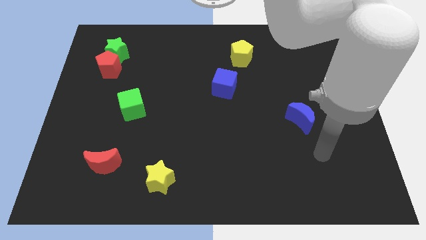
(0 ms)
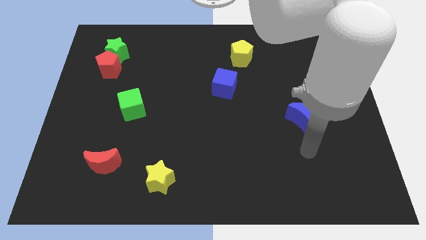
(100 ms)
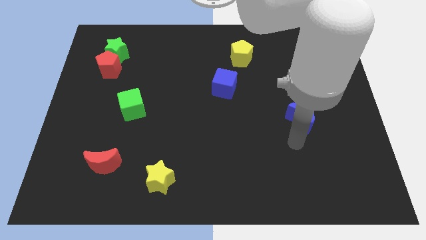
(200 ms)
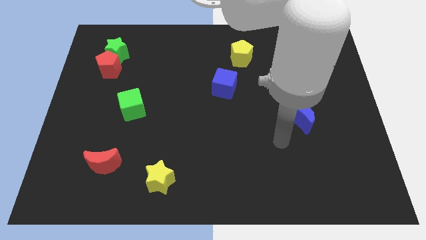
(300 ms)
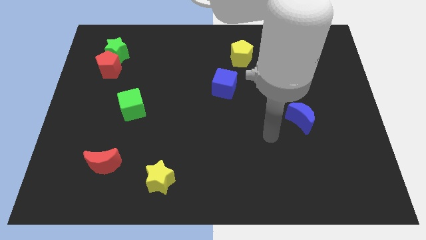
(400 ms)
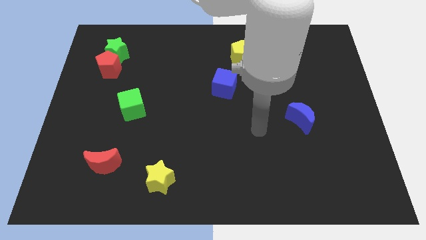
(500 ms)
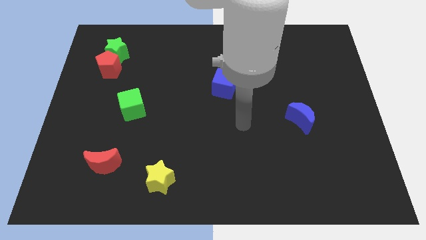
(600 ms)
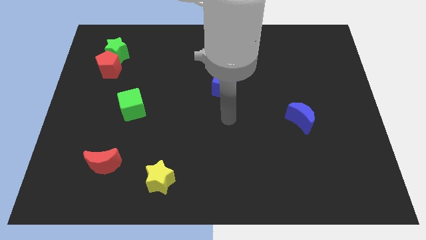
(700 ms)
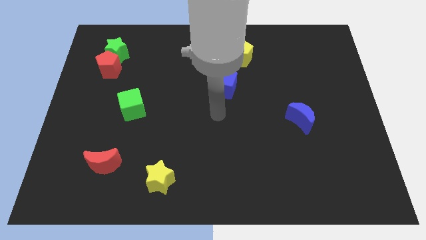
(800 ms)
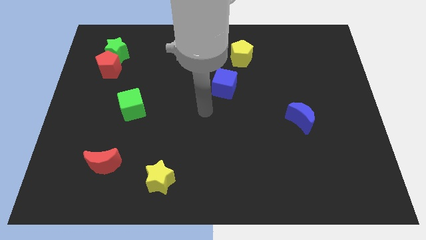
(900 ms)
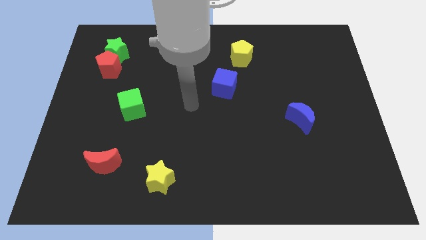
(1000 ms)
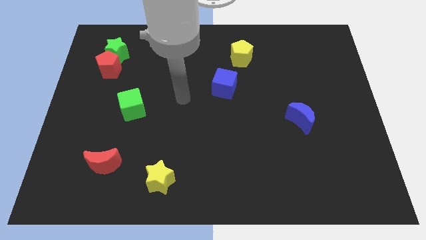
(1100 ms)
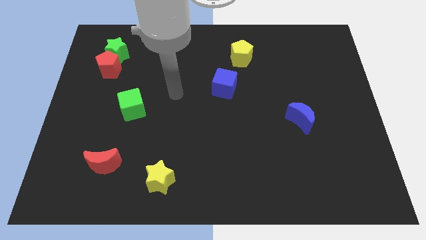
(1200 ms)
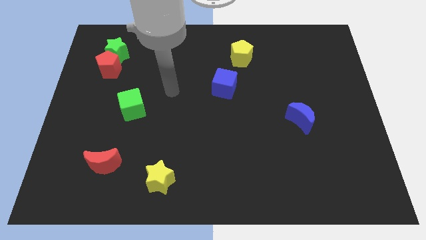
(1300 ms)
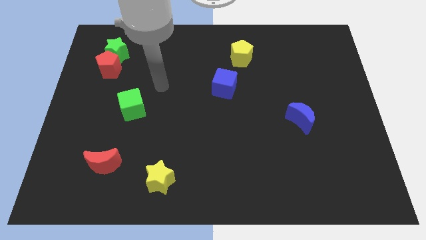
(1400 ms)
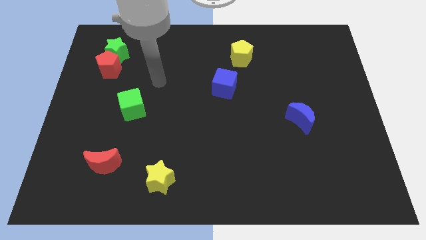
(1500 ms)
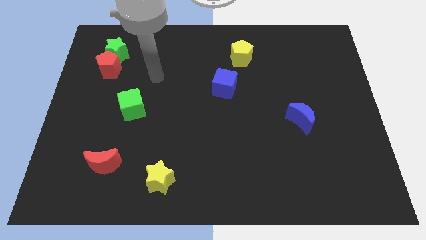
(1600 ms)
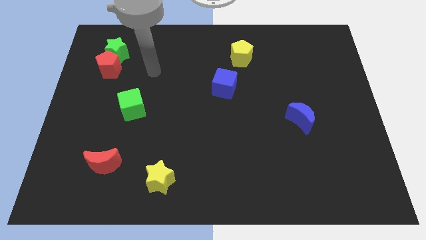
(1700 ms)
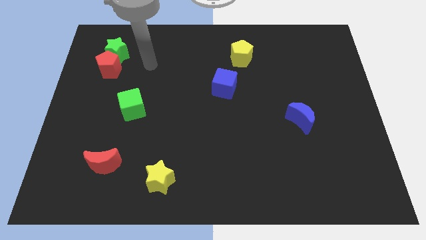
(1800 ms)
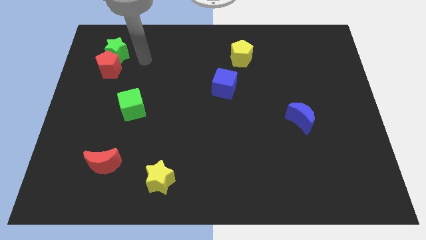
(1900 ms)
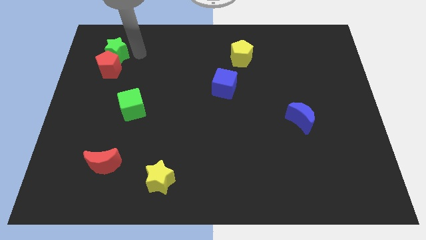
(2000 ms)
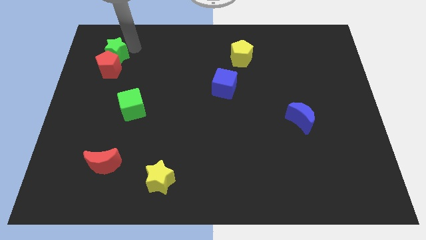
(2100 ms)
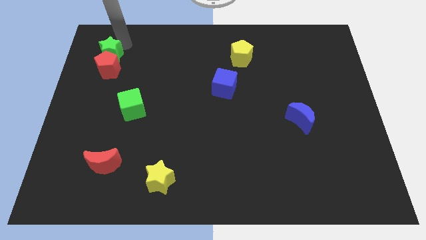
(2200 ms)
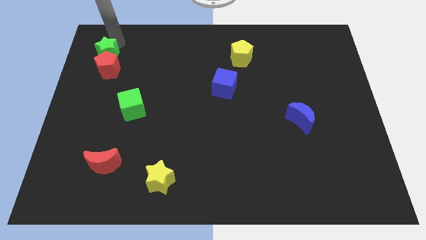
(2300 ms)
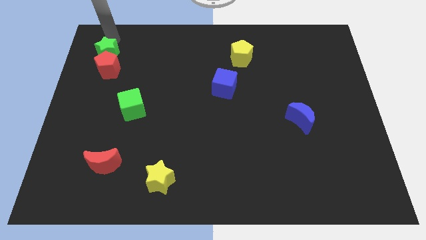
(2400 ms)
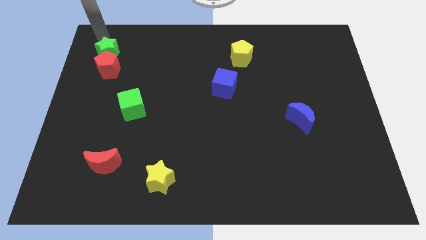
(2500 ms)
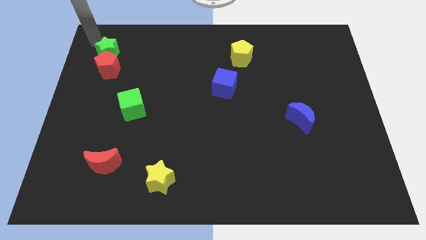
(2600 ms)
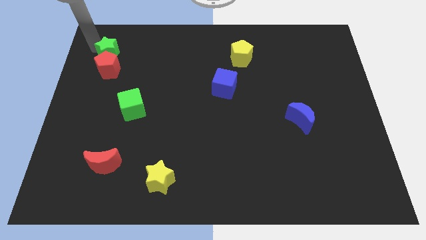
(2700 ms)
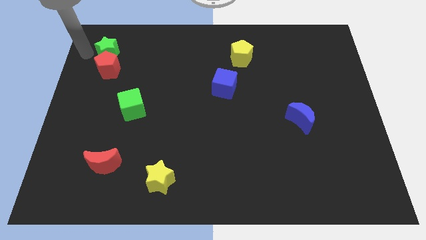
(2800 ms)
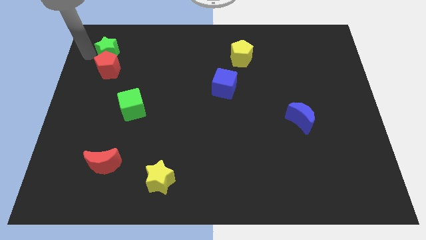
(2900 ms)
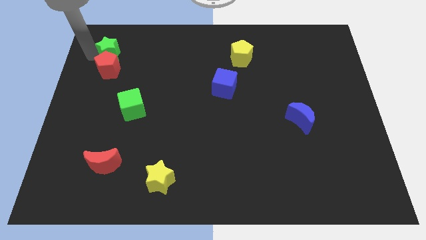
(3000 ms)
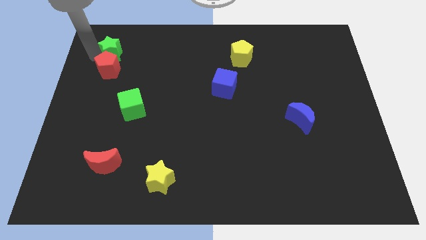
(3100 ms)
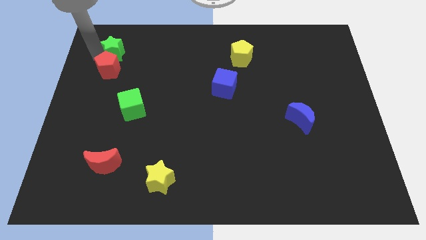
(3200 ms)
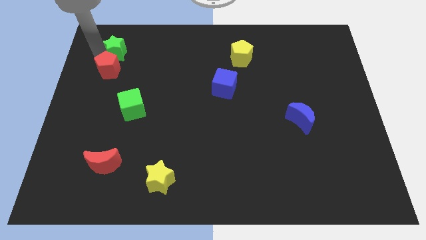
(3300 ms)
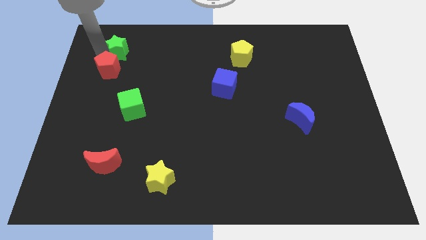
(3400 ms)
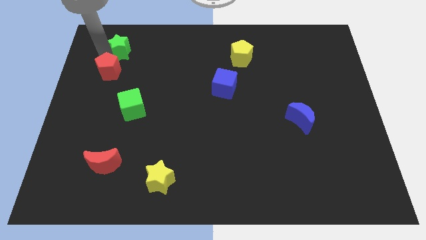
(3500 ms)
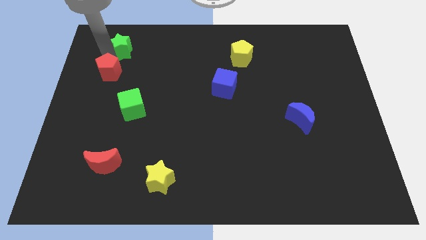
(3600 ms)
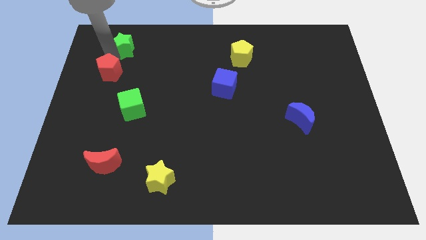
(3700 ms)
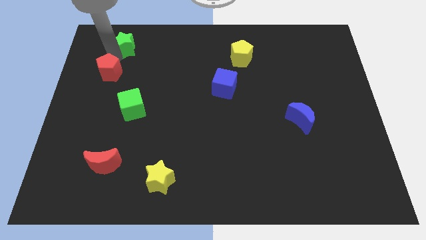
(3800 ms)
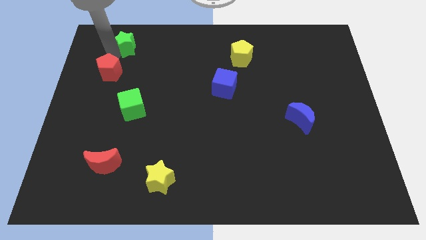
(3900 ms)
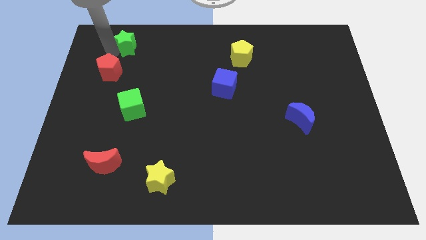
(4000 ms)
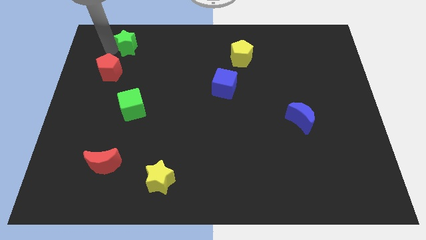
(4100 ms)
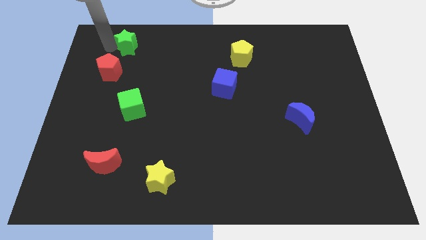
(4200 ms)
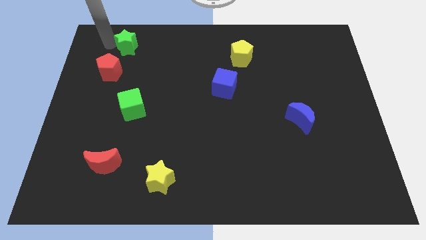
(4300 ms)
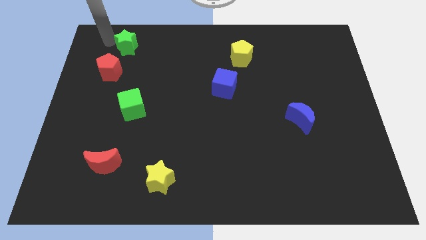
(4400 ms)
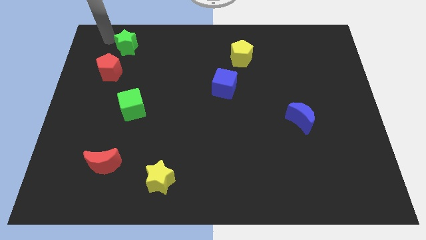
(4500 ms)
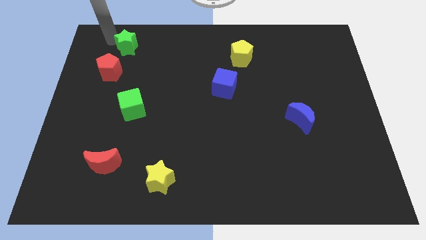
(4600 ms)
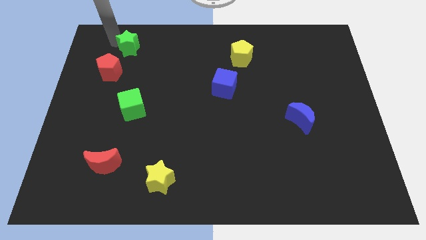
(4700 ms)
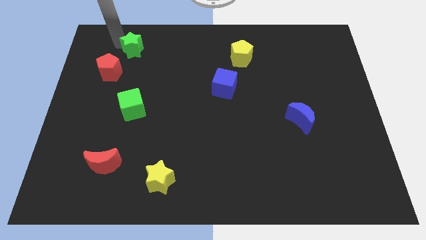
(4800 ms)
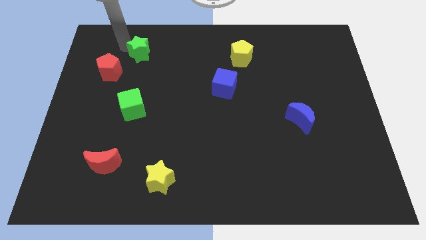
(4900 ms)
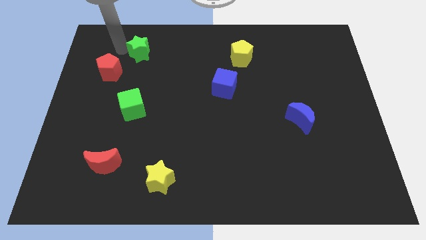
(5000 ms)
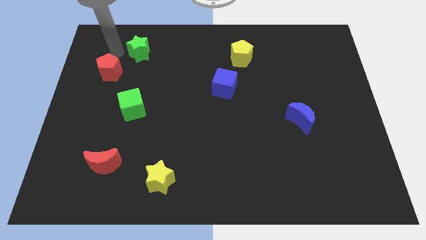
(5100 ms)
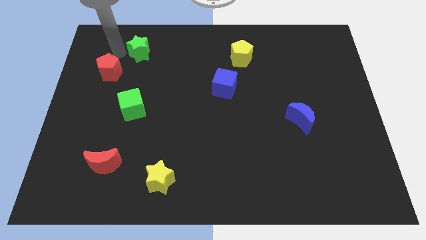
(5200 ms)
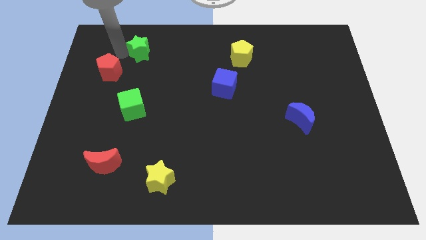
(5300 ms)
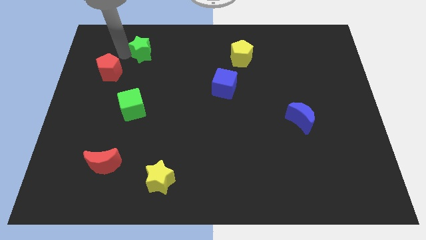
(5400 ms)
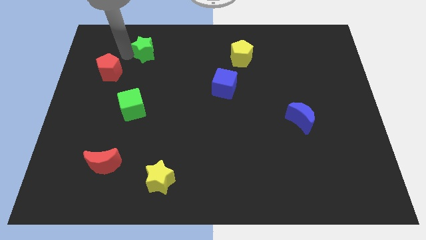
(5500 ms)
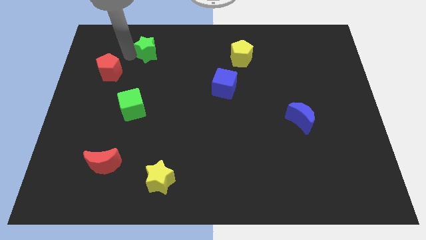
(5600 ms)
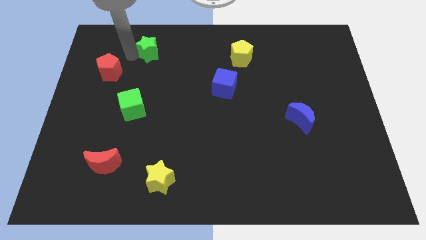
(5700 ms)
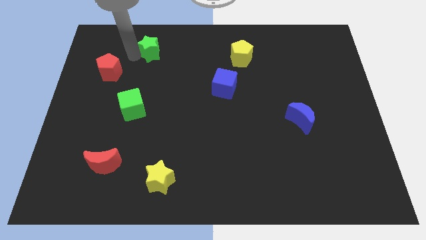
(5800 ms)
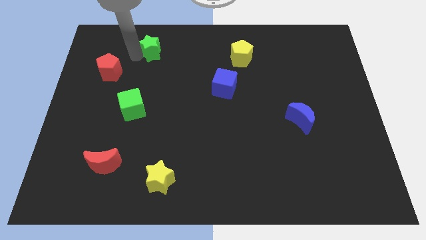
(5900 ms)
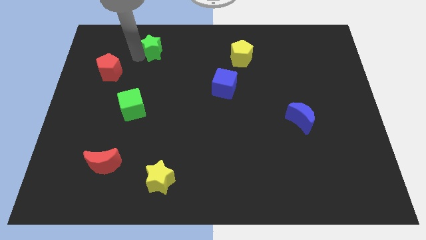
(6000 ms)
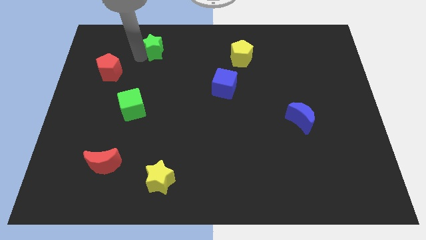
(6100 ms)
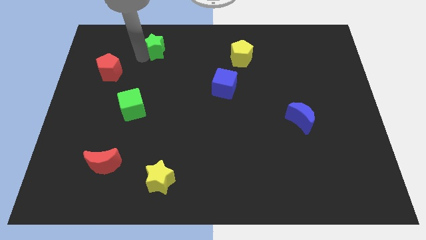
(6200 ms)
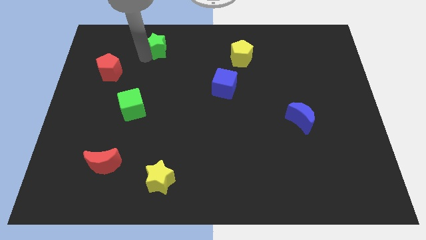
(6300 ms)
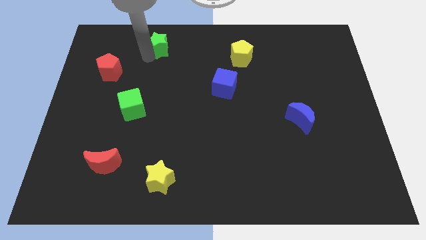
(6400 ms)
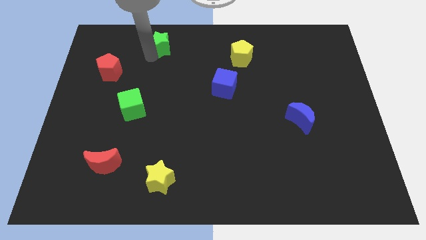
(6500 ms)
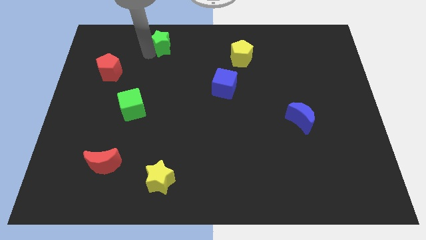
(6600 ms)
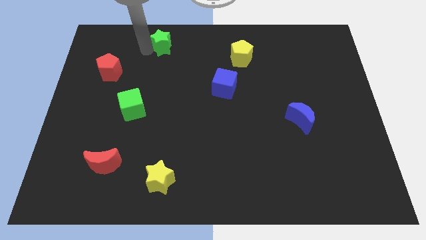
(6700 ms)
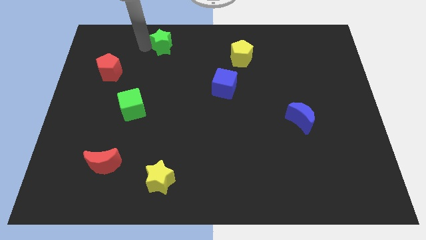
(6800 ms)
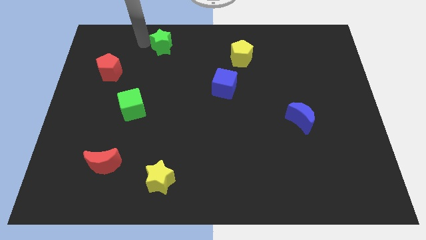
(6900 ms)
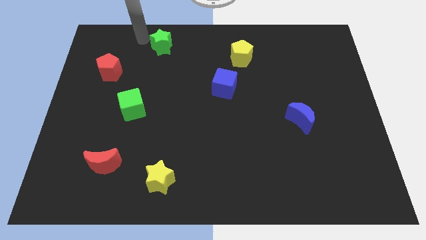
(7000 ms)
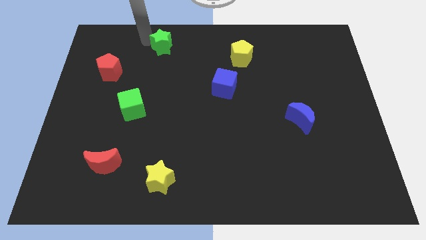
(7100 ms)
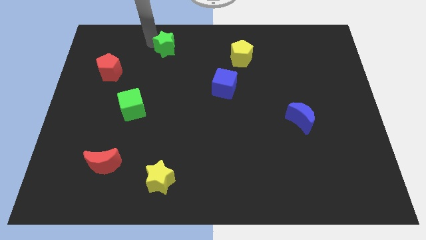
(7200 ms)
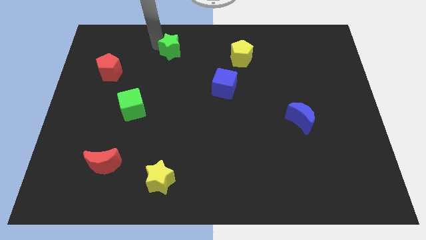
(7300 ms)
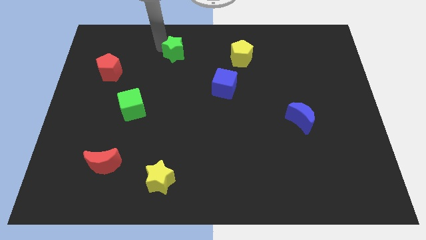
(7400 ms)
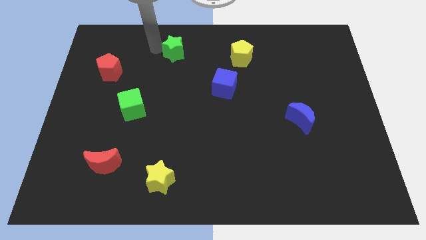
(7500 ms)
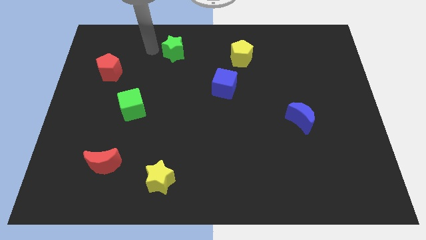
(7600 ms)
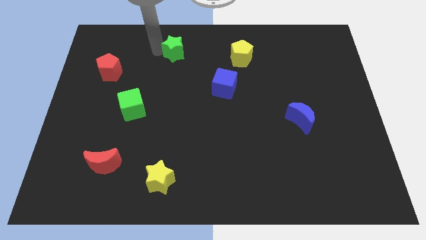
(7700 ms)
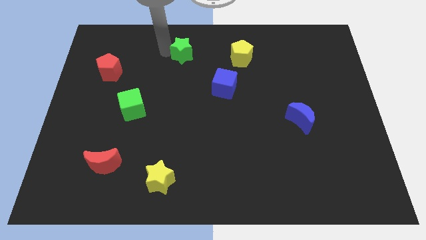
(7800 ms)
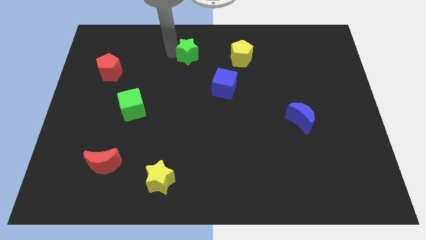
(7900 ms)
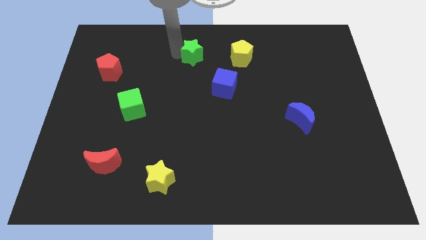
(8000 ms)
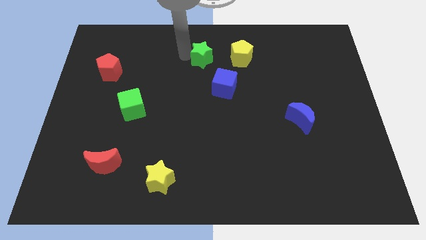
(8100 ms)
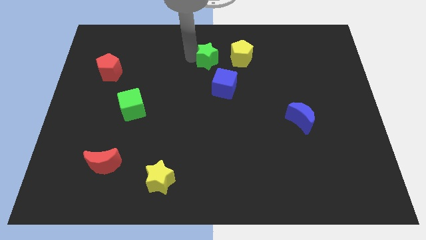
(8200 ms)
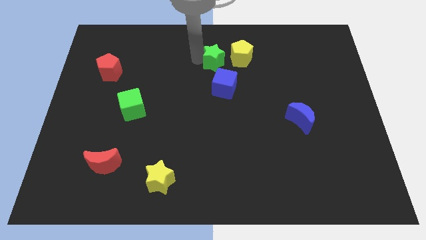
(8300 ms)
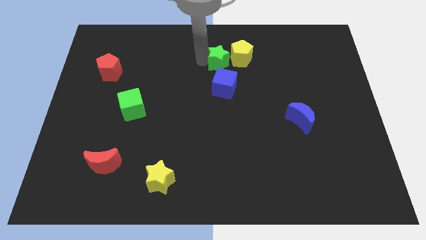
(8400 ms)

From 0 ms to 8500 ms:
push the green star next to the yellow pentagon
